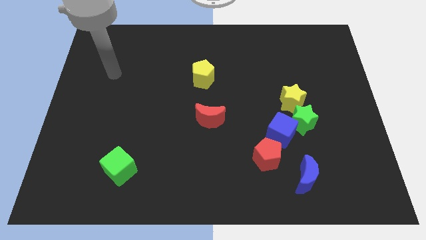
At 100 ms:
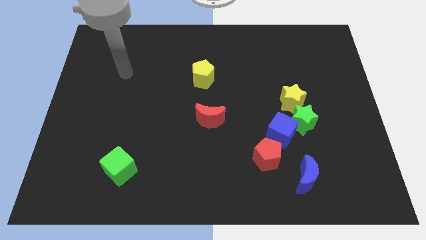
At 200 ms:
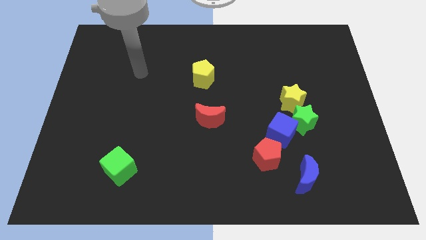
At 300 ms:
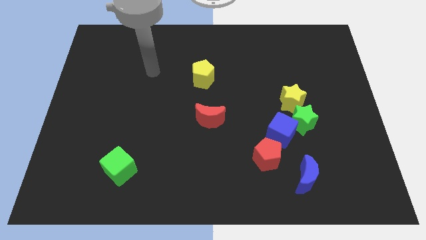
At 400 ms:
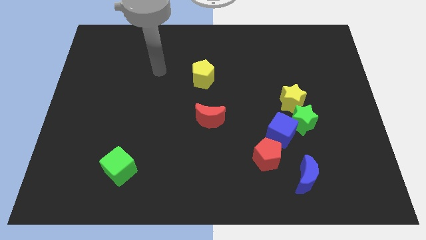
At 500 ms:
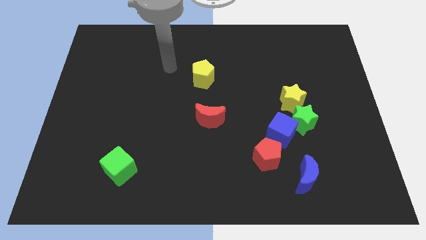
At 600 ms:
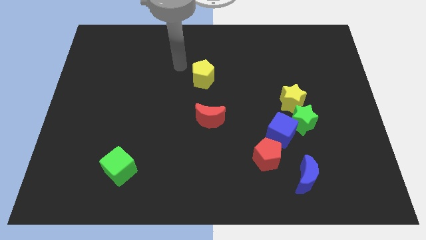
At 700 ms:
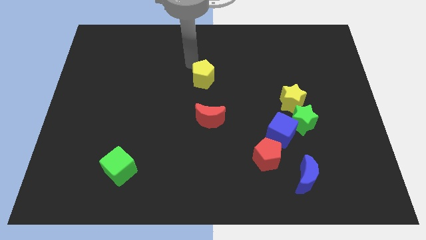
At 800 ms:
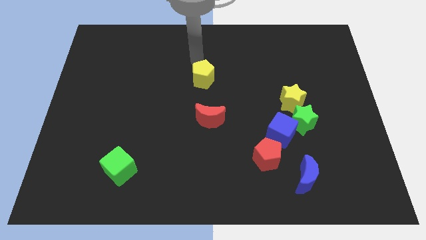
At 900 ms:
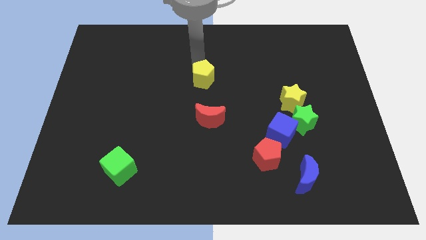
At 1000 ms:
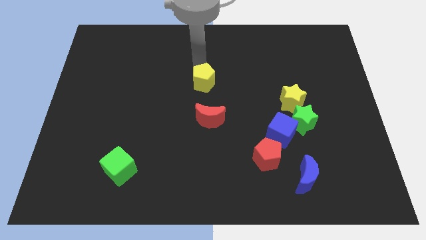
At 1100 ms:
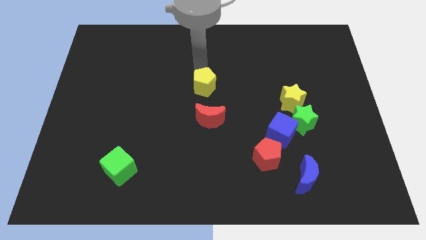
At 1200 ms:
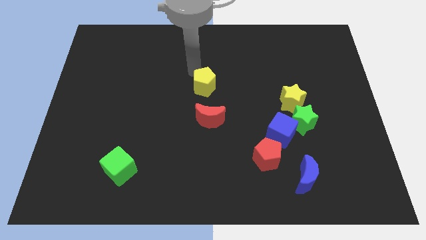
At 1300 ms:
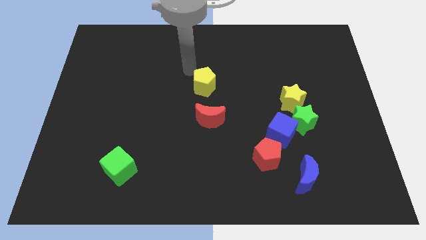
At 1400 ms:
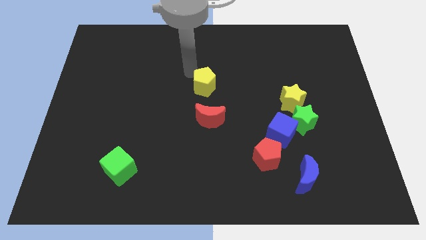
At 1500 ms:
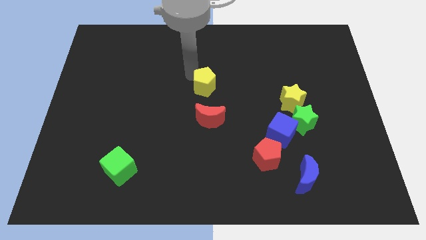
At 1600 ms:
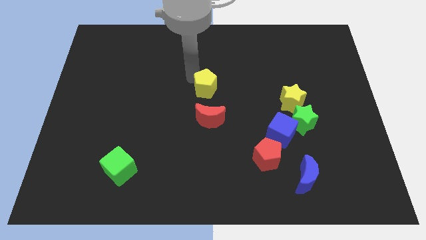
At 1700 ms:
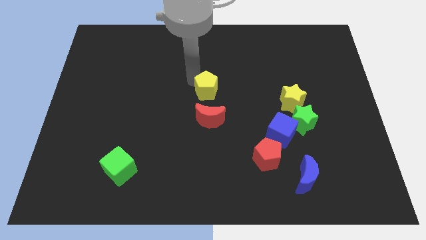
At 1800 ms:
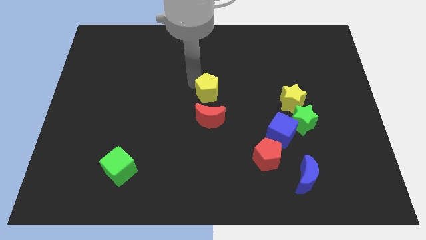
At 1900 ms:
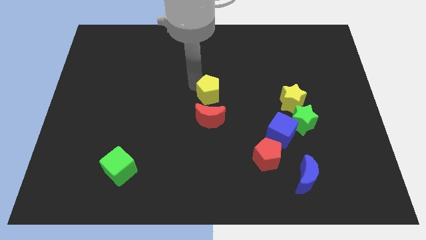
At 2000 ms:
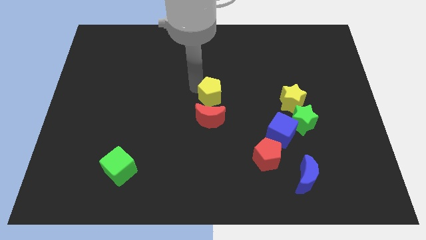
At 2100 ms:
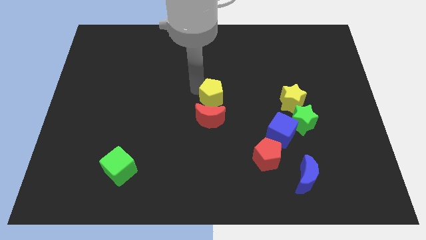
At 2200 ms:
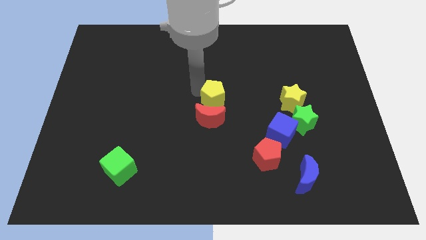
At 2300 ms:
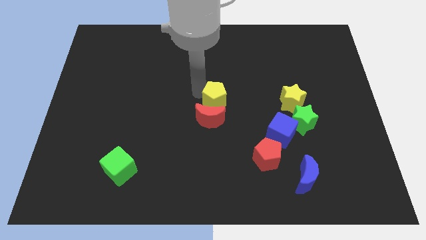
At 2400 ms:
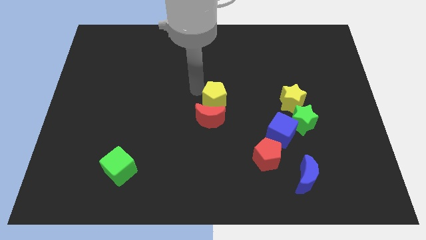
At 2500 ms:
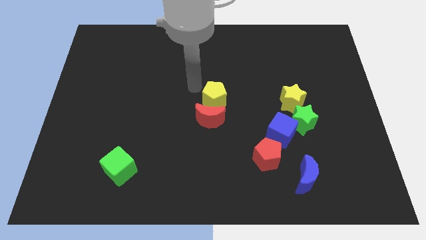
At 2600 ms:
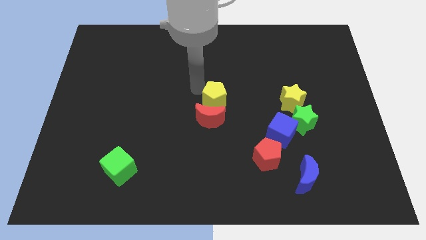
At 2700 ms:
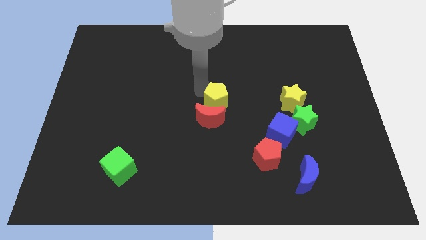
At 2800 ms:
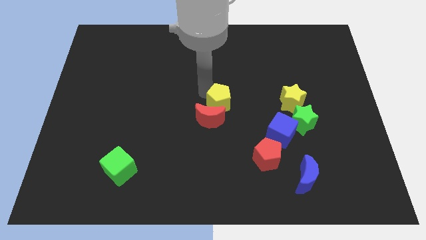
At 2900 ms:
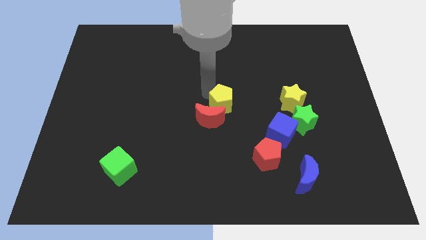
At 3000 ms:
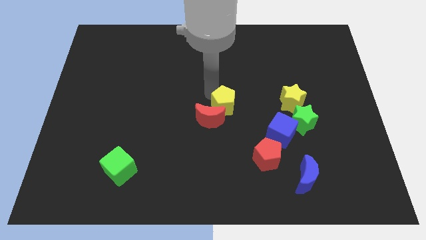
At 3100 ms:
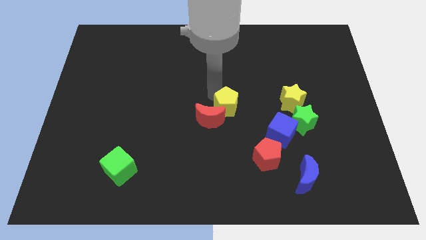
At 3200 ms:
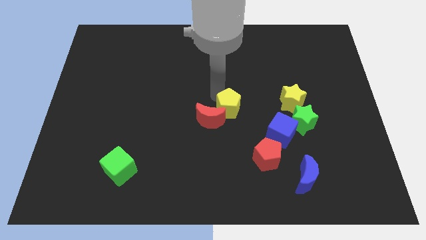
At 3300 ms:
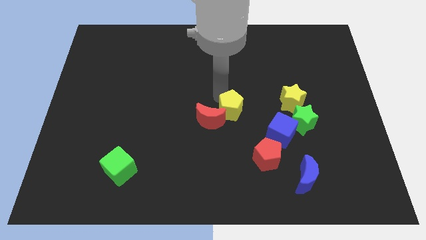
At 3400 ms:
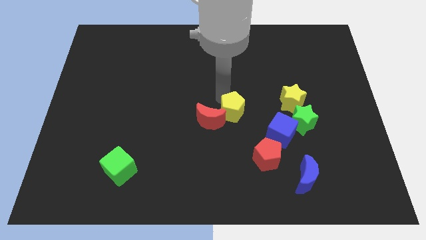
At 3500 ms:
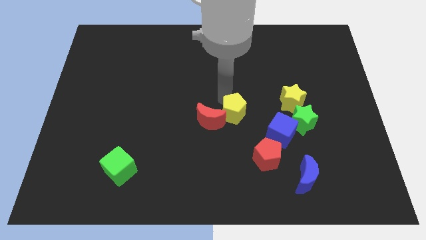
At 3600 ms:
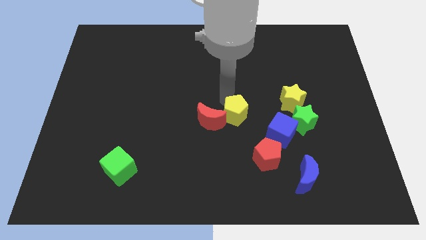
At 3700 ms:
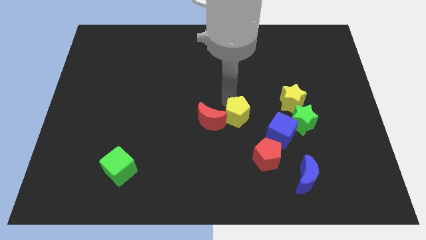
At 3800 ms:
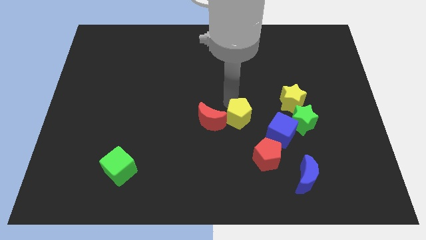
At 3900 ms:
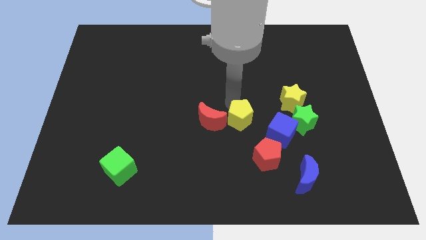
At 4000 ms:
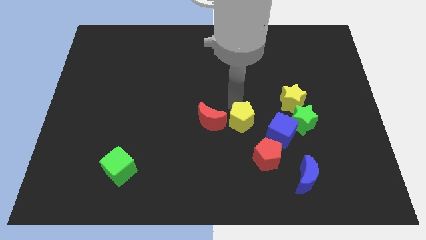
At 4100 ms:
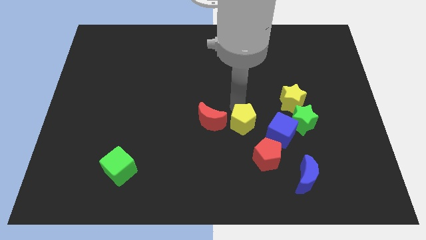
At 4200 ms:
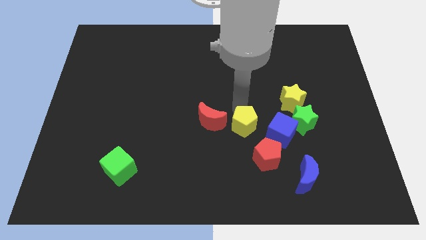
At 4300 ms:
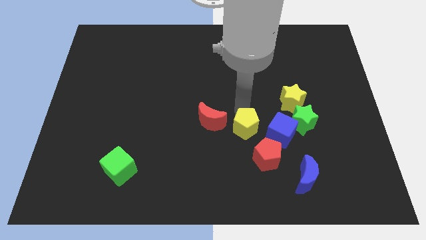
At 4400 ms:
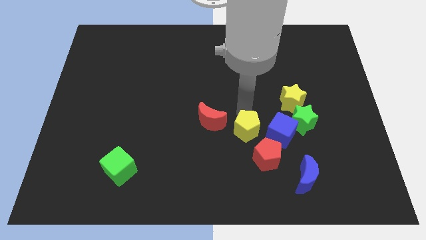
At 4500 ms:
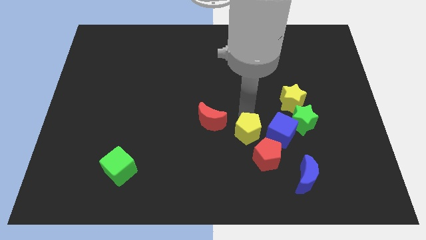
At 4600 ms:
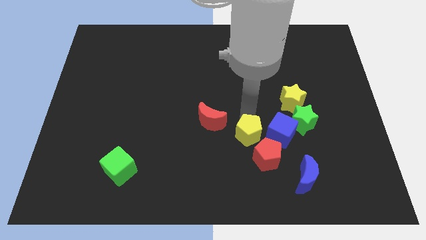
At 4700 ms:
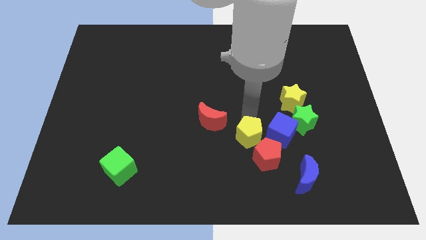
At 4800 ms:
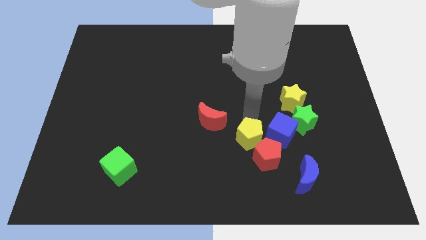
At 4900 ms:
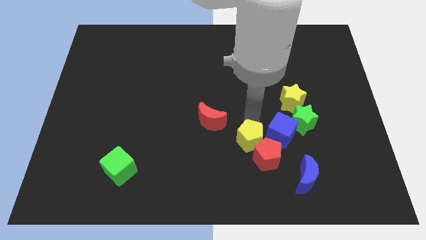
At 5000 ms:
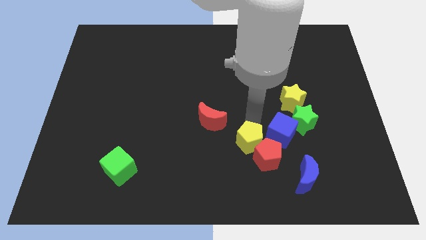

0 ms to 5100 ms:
push the yellow pentagon to the left of the red pentagon

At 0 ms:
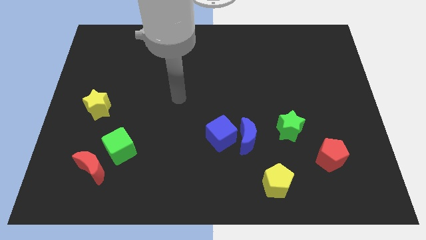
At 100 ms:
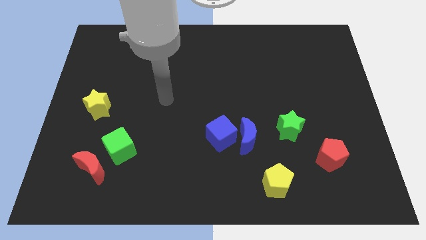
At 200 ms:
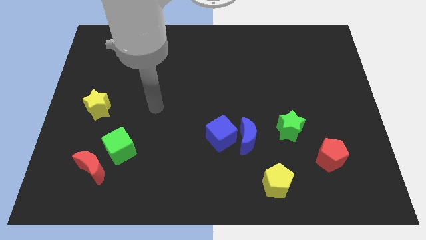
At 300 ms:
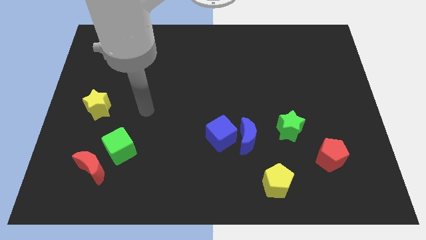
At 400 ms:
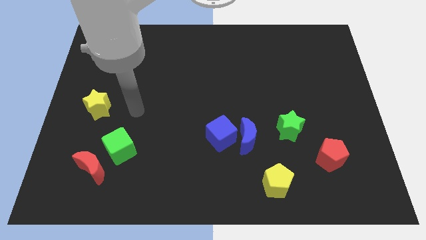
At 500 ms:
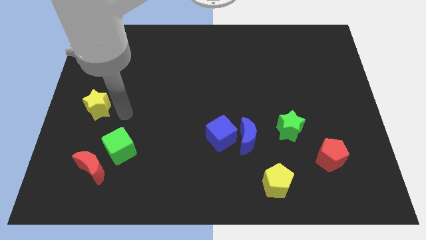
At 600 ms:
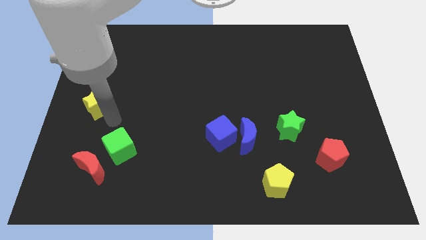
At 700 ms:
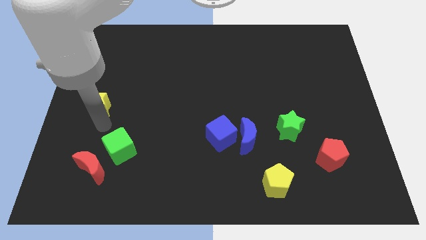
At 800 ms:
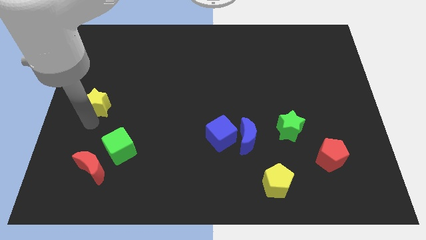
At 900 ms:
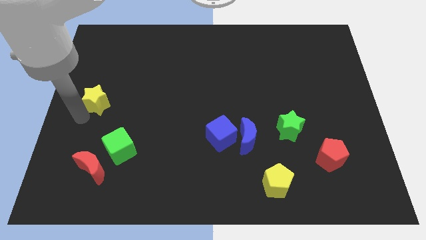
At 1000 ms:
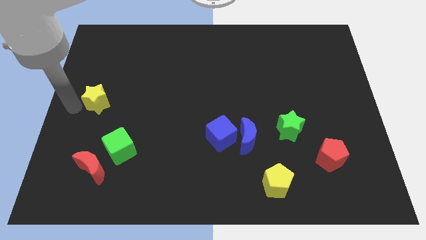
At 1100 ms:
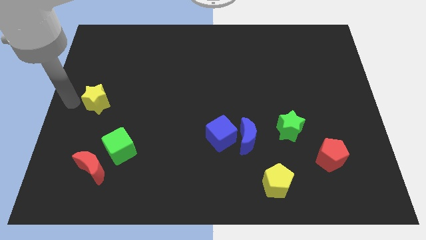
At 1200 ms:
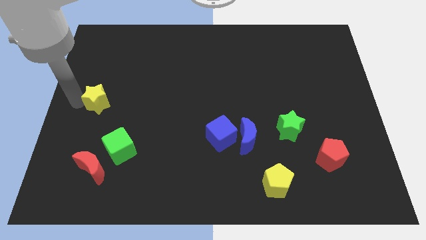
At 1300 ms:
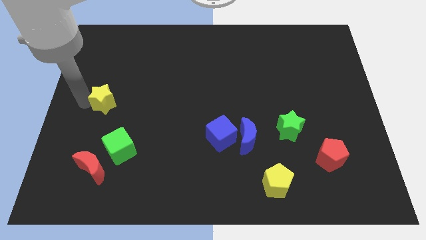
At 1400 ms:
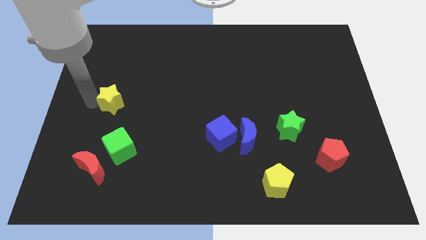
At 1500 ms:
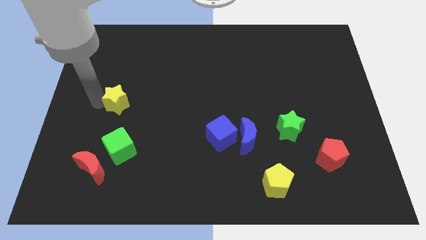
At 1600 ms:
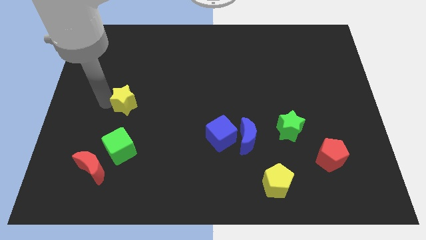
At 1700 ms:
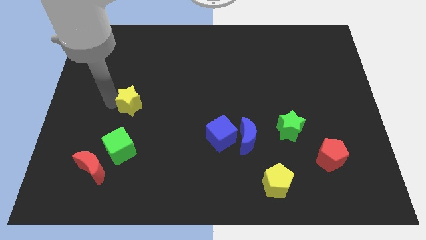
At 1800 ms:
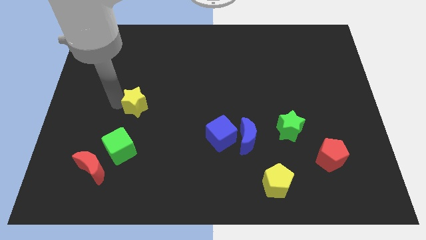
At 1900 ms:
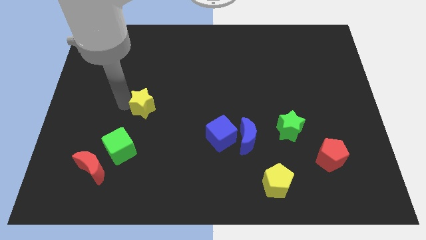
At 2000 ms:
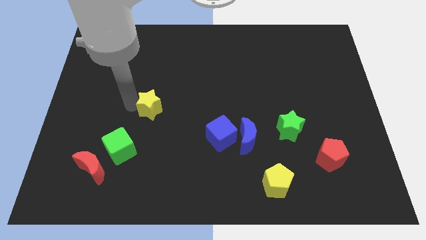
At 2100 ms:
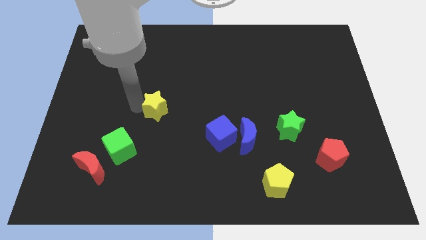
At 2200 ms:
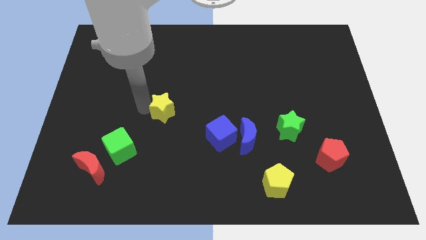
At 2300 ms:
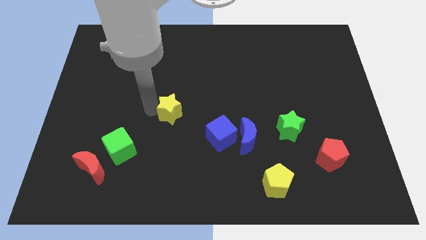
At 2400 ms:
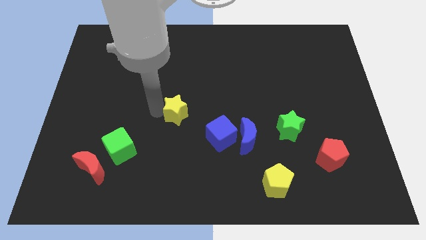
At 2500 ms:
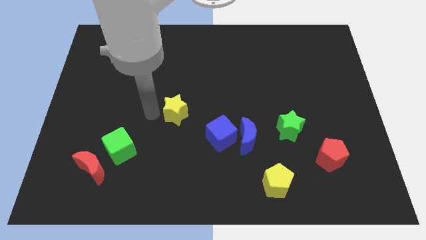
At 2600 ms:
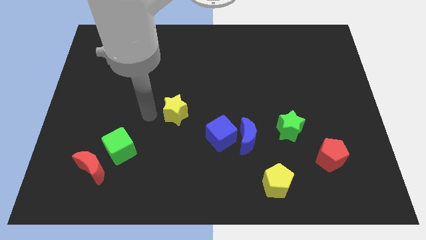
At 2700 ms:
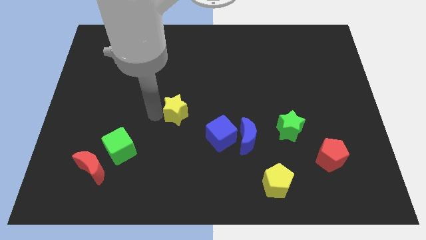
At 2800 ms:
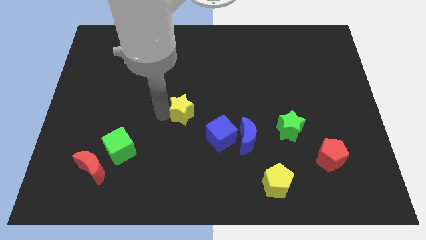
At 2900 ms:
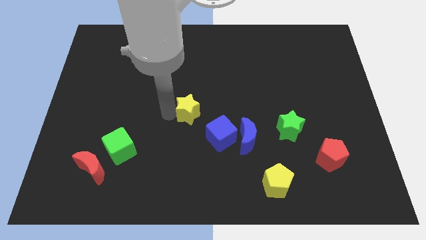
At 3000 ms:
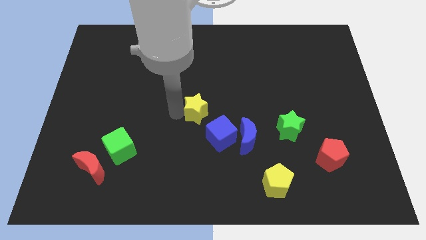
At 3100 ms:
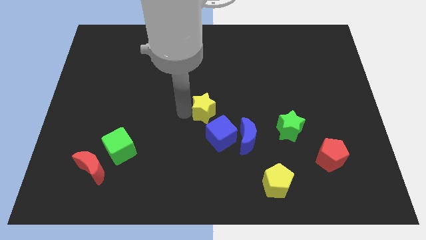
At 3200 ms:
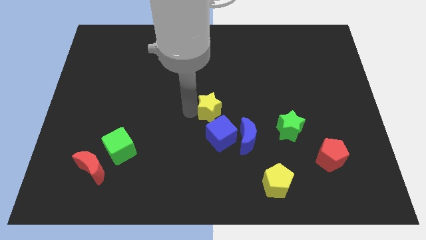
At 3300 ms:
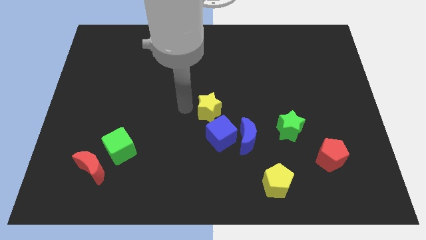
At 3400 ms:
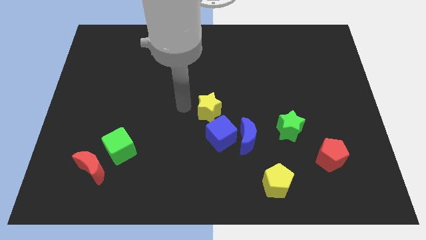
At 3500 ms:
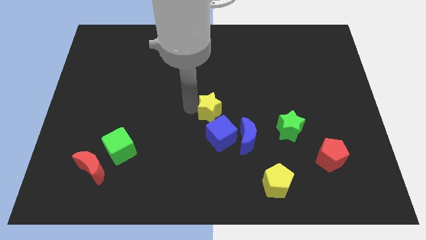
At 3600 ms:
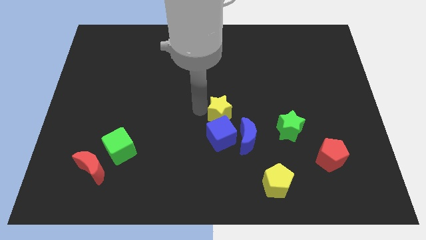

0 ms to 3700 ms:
slide the yellow star to the top right side of the blue cube
